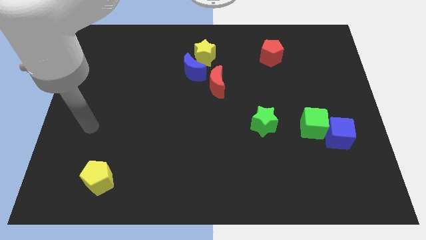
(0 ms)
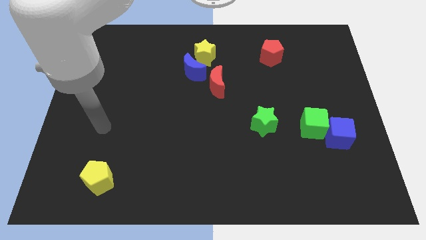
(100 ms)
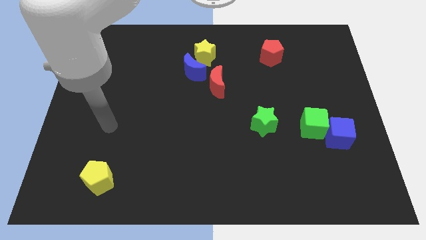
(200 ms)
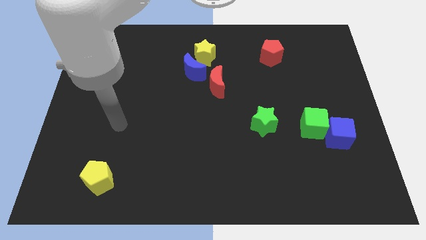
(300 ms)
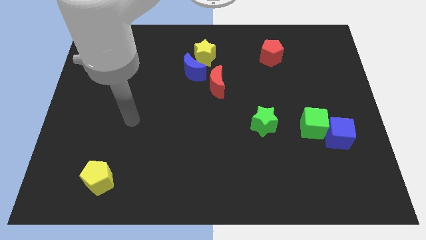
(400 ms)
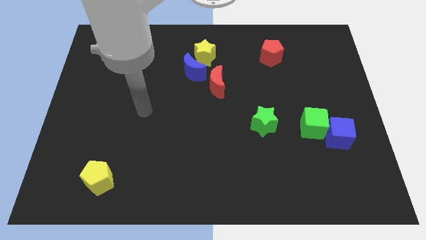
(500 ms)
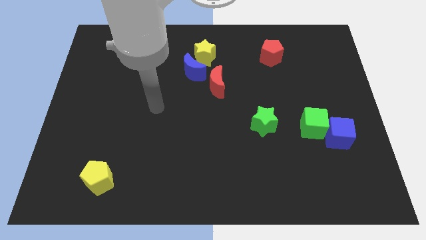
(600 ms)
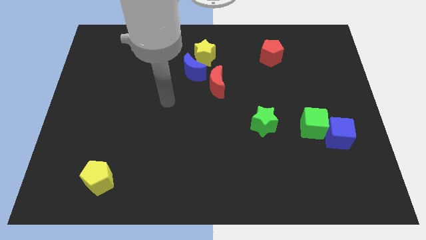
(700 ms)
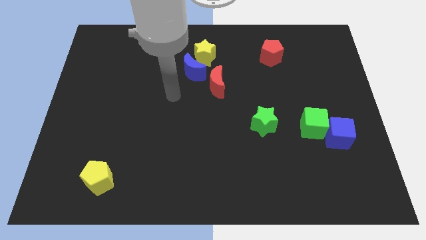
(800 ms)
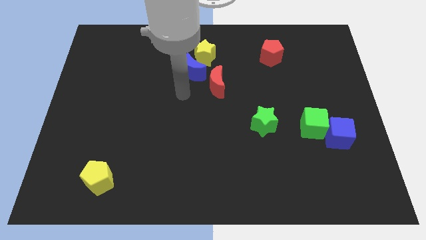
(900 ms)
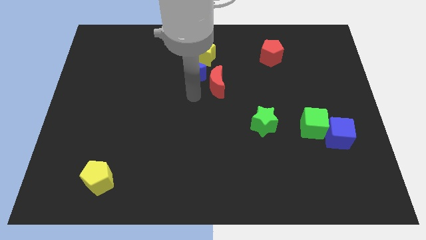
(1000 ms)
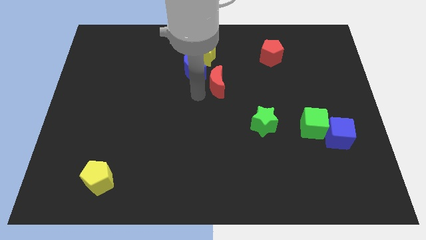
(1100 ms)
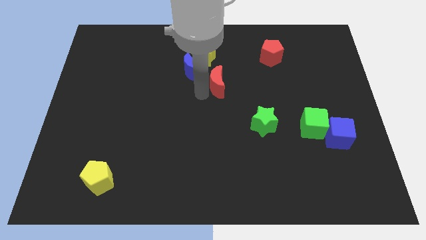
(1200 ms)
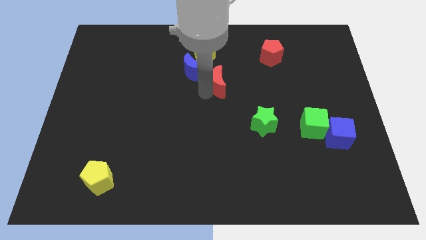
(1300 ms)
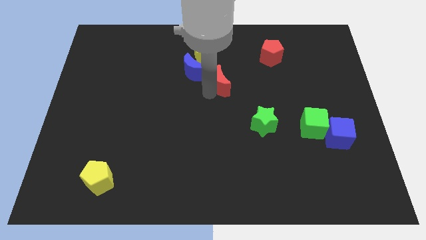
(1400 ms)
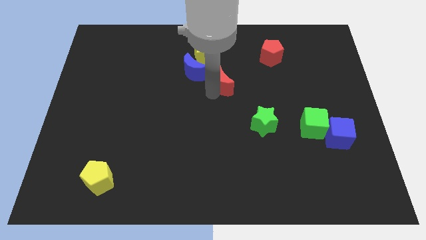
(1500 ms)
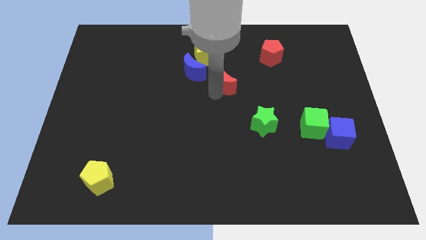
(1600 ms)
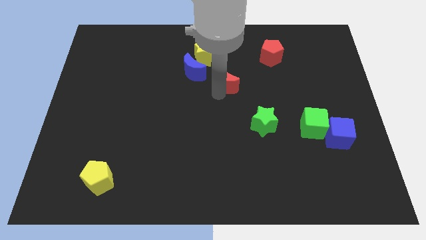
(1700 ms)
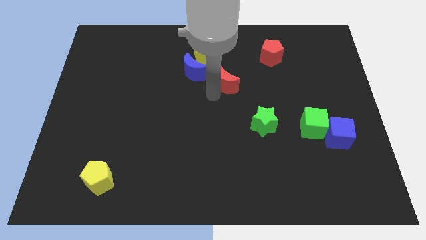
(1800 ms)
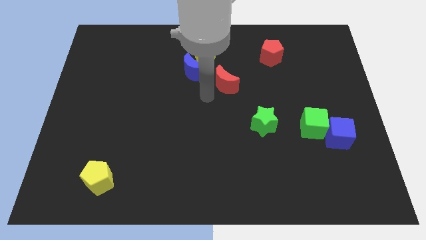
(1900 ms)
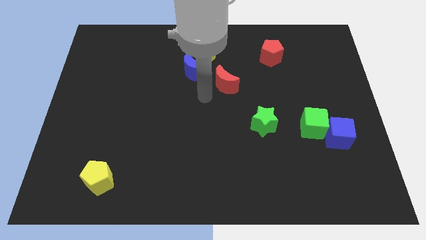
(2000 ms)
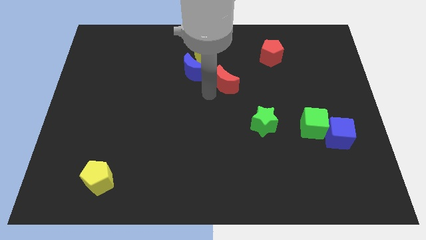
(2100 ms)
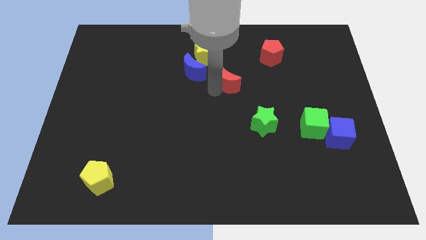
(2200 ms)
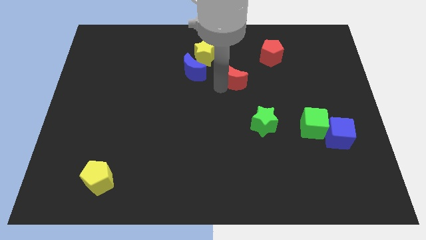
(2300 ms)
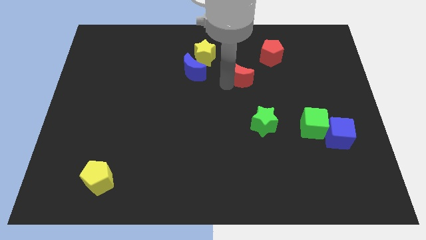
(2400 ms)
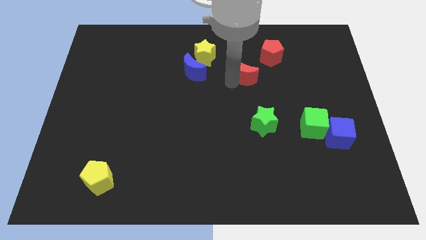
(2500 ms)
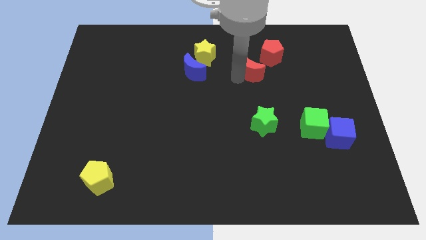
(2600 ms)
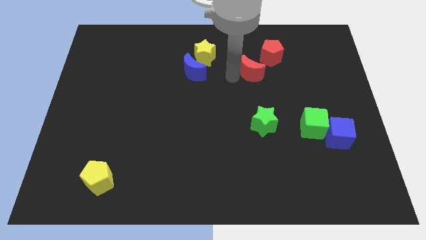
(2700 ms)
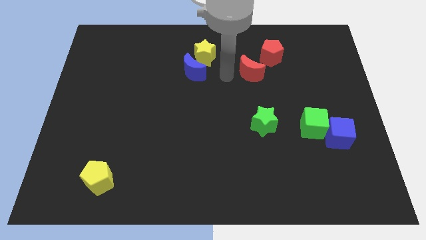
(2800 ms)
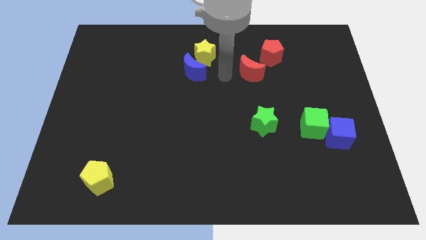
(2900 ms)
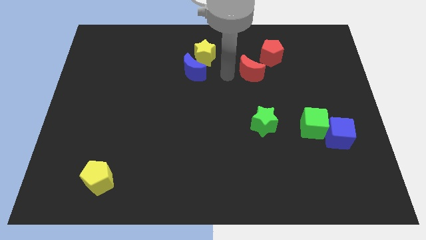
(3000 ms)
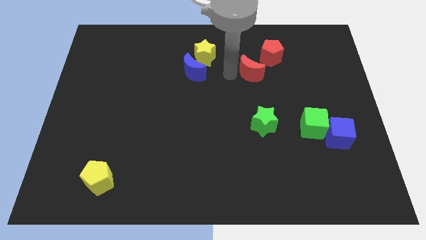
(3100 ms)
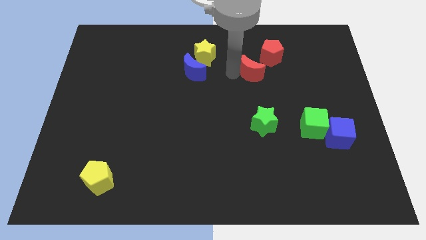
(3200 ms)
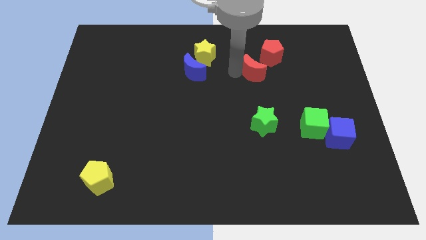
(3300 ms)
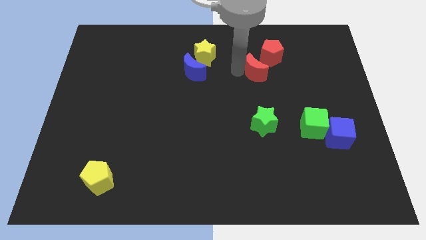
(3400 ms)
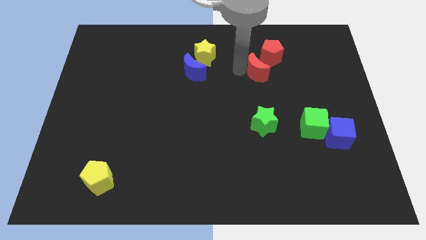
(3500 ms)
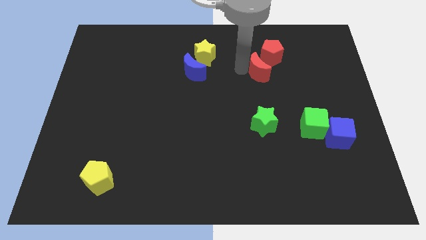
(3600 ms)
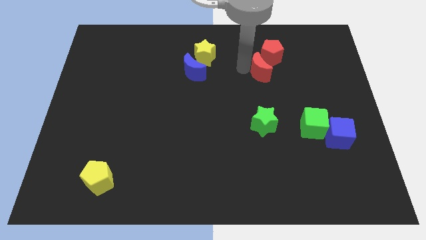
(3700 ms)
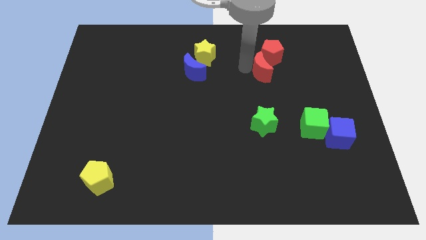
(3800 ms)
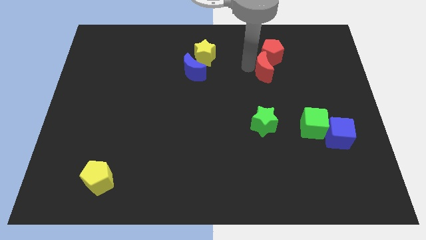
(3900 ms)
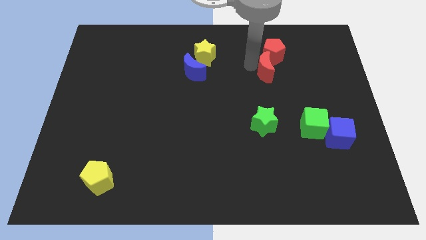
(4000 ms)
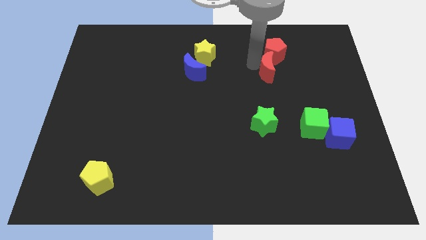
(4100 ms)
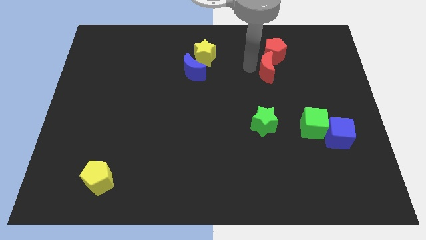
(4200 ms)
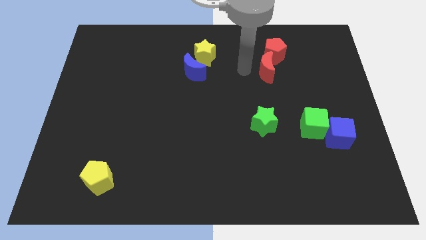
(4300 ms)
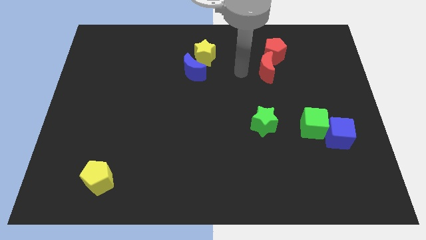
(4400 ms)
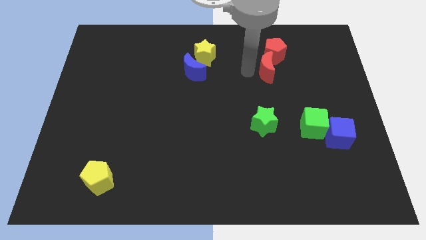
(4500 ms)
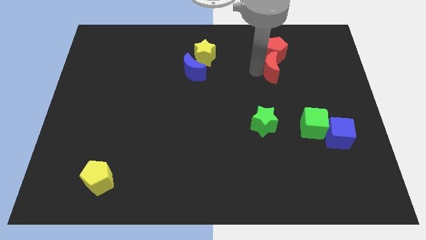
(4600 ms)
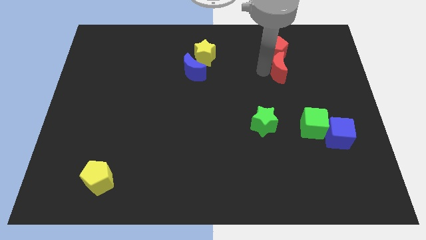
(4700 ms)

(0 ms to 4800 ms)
move the red moon diagonally down and to the right of the red pentagon

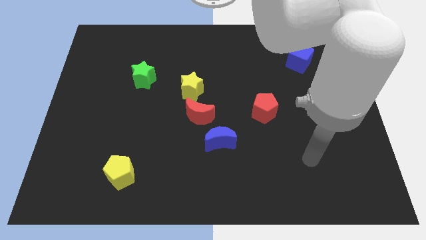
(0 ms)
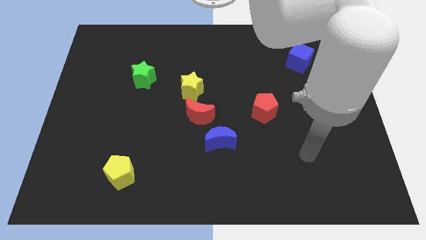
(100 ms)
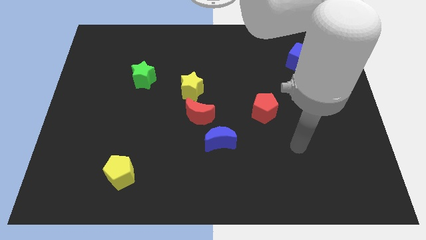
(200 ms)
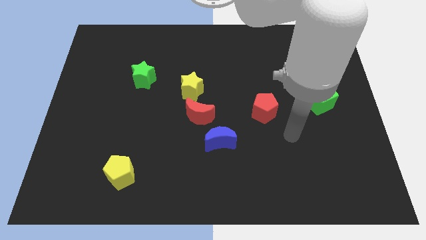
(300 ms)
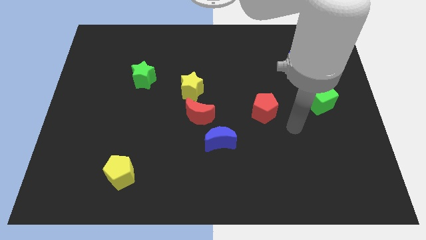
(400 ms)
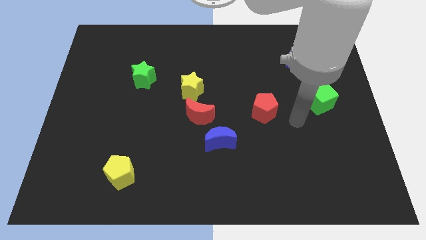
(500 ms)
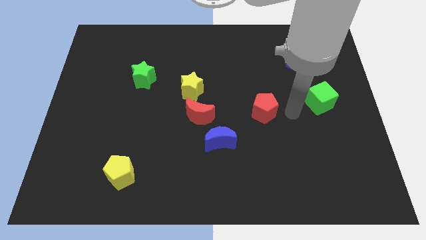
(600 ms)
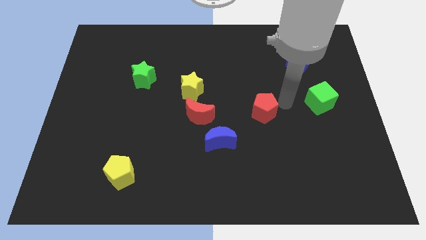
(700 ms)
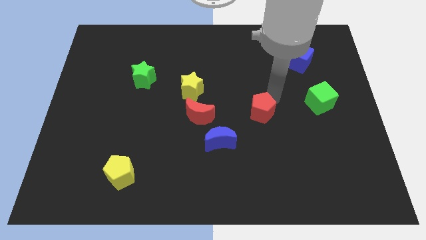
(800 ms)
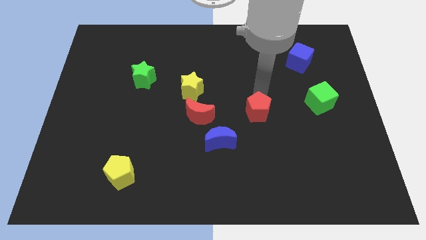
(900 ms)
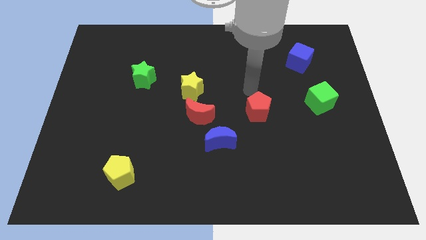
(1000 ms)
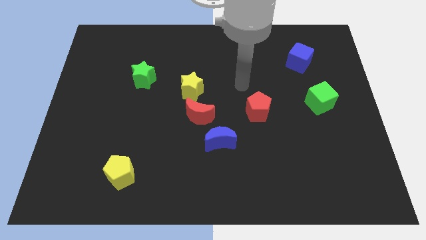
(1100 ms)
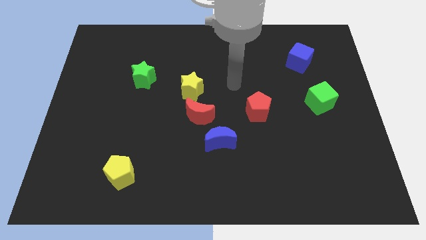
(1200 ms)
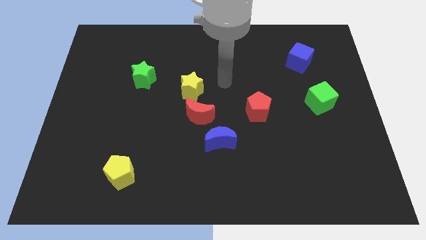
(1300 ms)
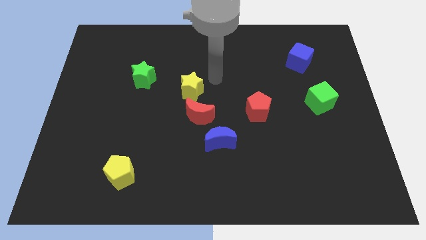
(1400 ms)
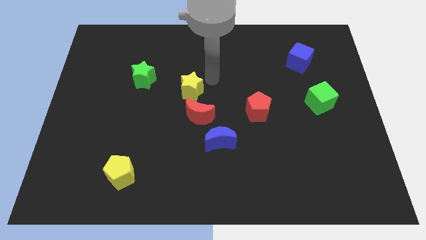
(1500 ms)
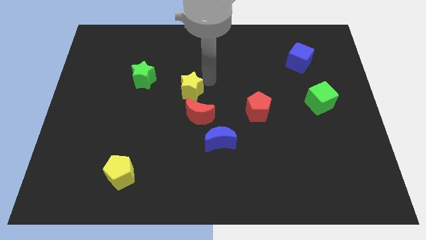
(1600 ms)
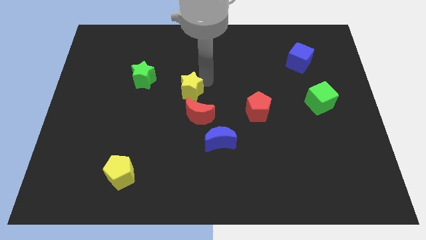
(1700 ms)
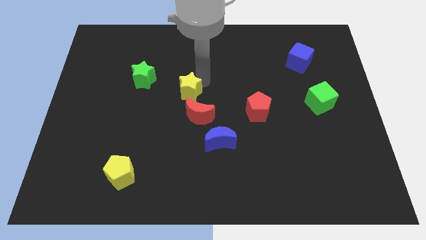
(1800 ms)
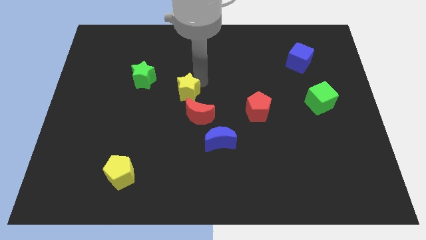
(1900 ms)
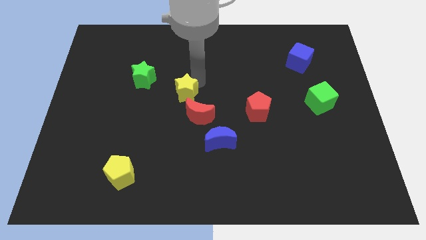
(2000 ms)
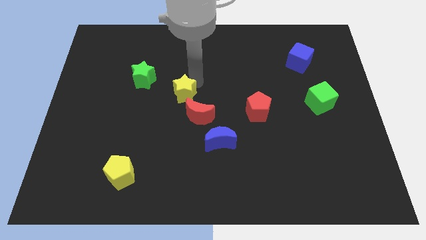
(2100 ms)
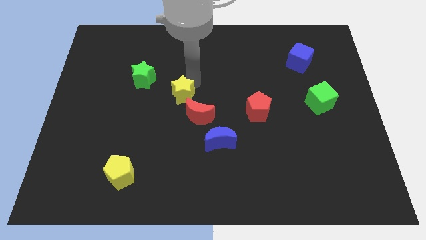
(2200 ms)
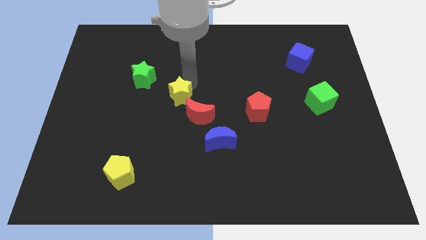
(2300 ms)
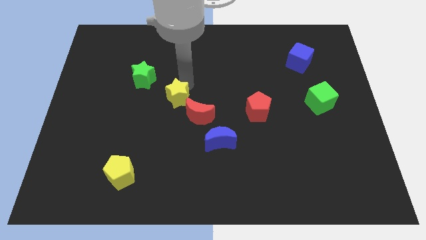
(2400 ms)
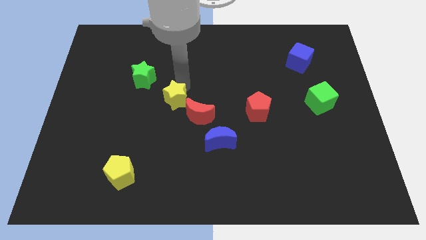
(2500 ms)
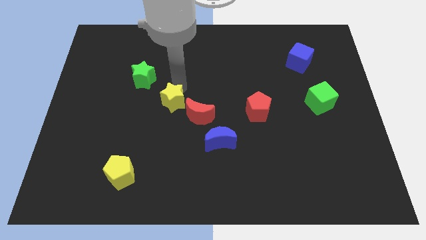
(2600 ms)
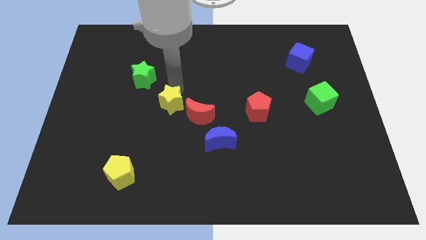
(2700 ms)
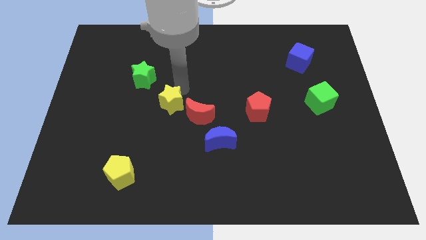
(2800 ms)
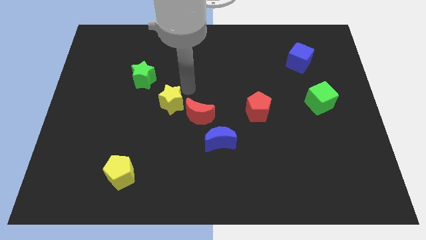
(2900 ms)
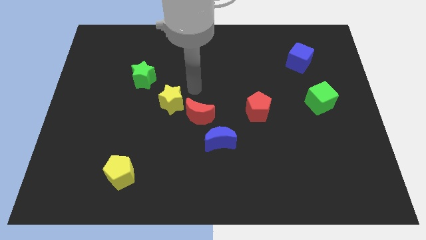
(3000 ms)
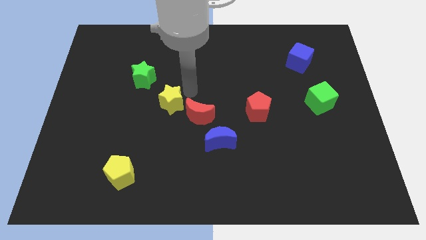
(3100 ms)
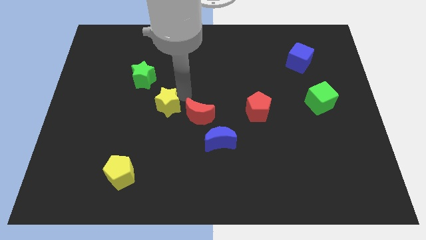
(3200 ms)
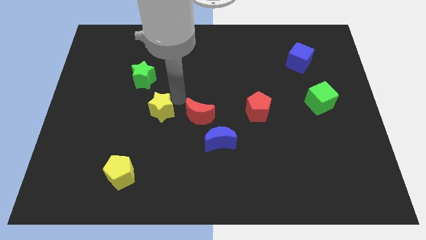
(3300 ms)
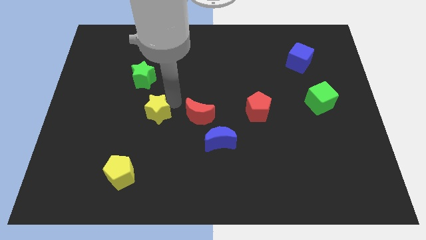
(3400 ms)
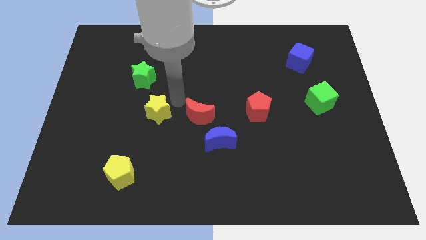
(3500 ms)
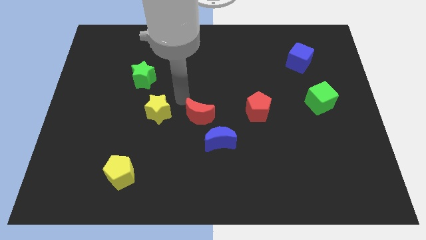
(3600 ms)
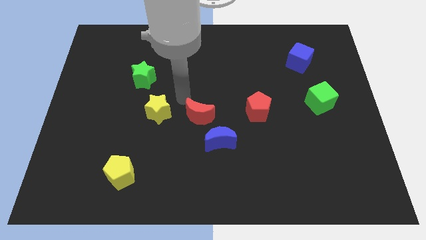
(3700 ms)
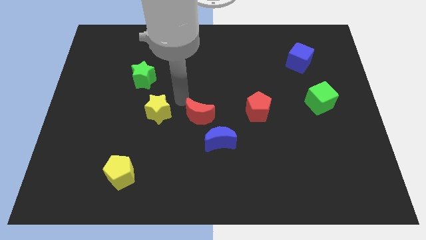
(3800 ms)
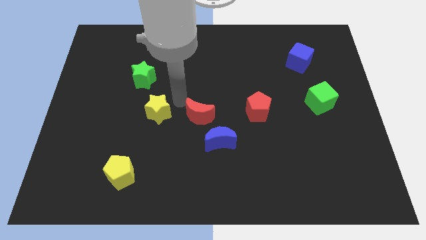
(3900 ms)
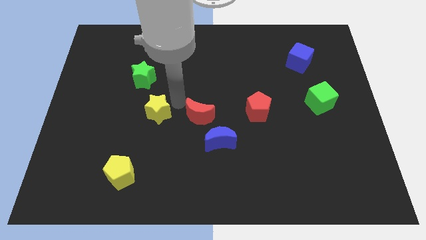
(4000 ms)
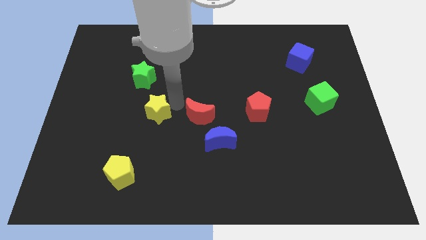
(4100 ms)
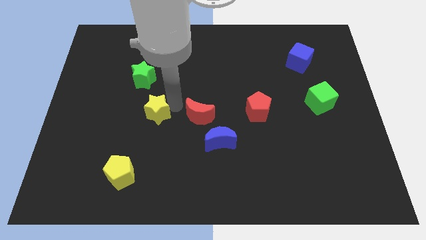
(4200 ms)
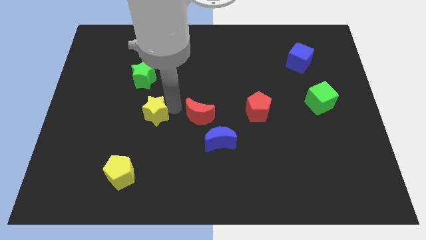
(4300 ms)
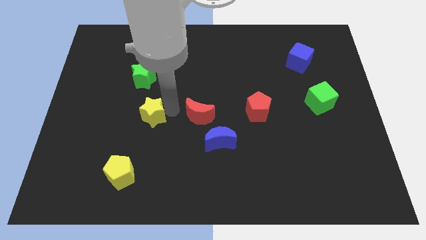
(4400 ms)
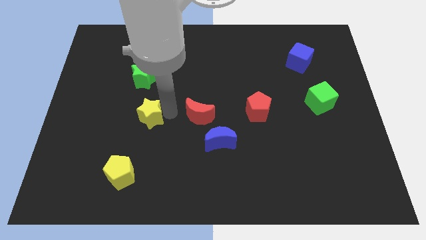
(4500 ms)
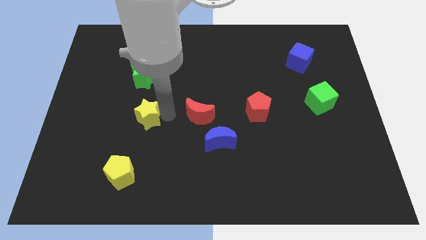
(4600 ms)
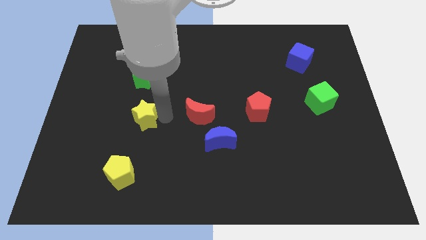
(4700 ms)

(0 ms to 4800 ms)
slide the yellow star above the yellow pentagon
